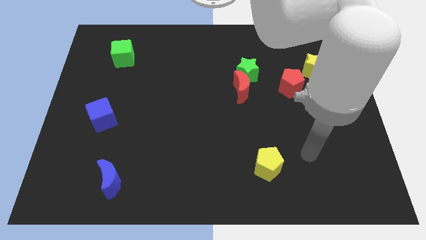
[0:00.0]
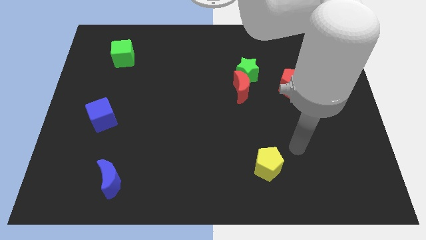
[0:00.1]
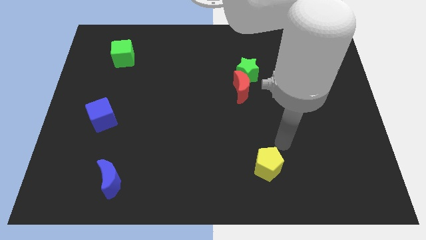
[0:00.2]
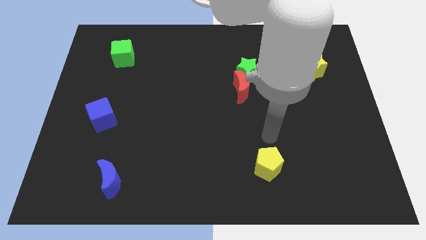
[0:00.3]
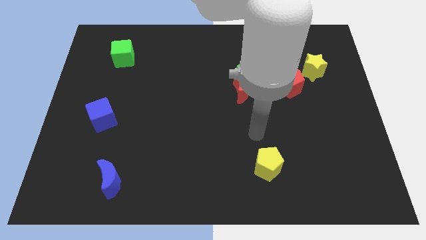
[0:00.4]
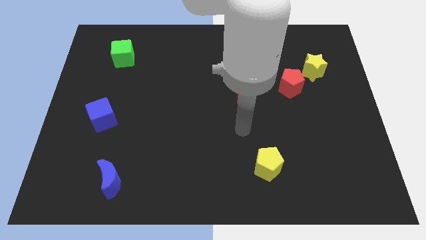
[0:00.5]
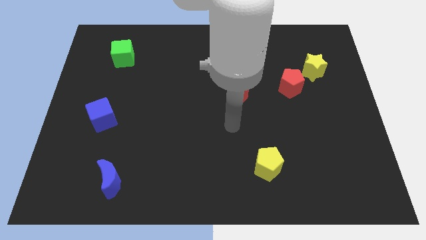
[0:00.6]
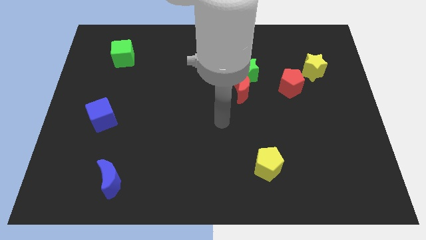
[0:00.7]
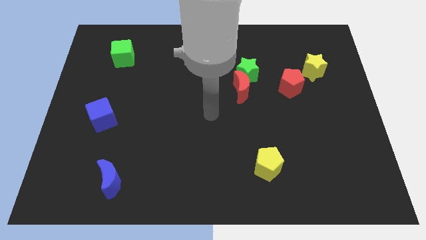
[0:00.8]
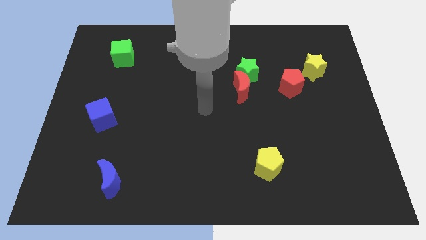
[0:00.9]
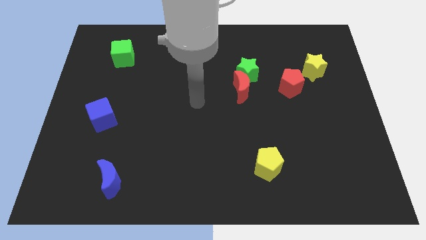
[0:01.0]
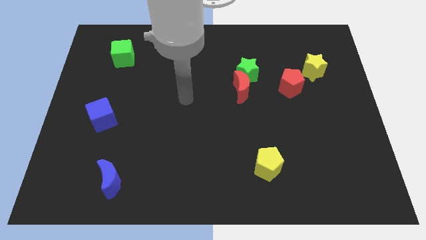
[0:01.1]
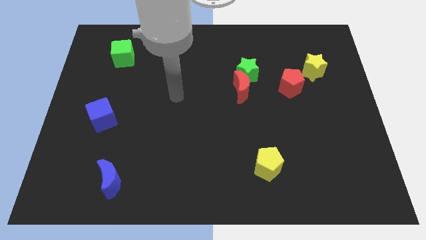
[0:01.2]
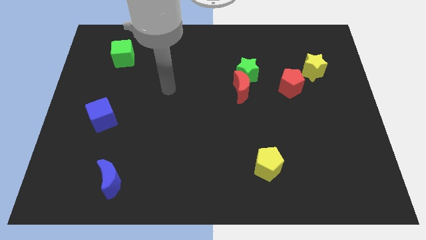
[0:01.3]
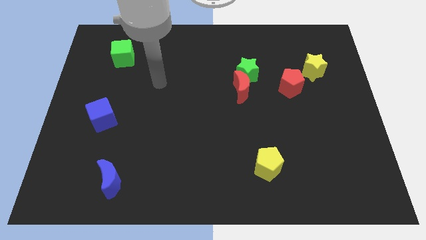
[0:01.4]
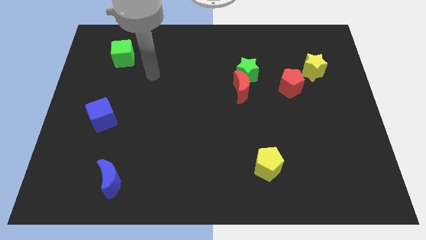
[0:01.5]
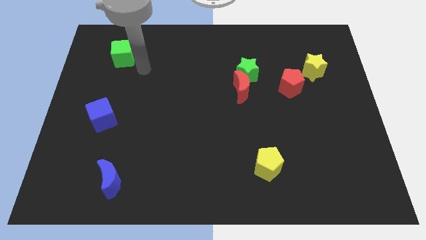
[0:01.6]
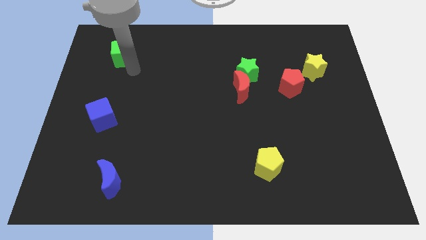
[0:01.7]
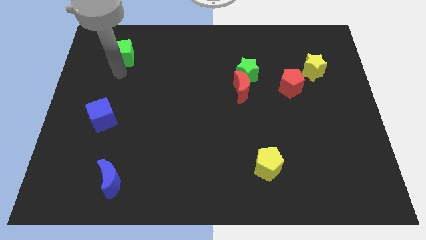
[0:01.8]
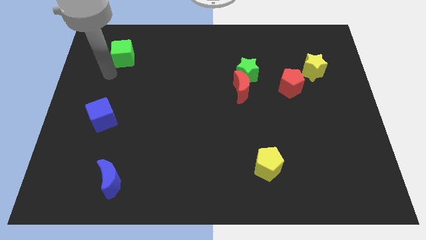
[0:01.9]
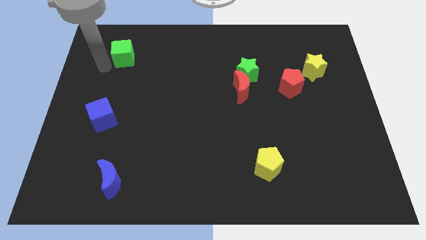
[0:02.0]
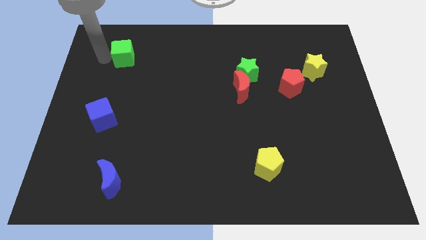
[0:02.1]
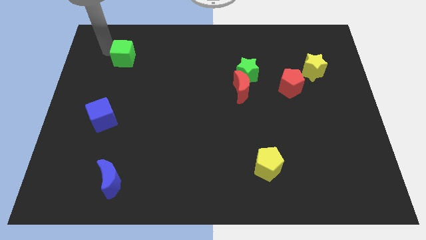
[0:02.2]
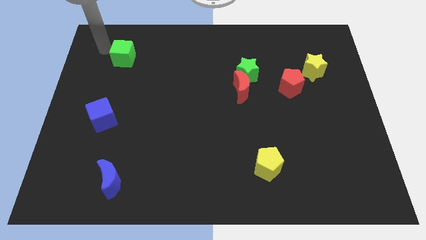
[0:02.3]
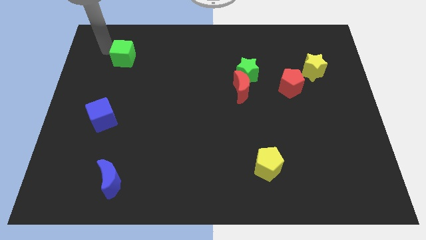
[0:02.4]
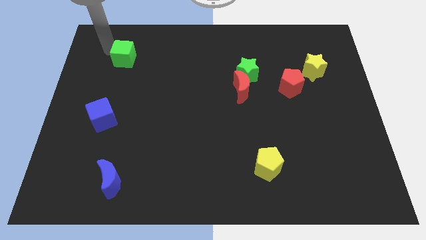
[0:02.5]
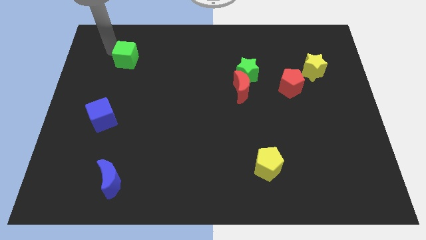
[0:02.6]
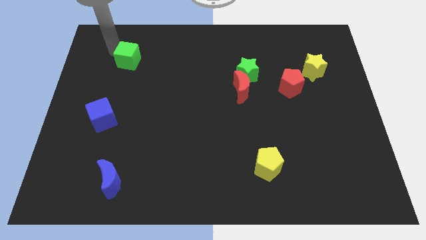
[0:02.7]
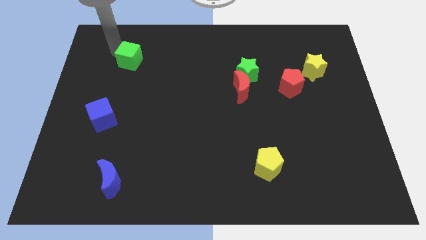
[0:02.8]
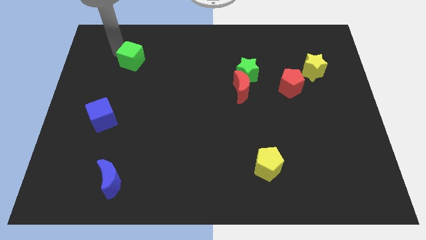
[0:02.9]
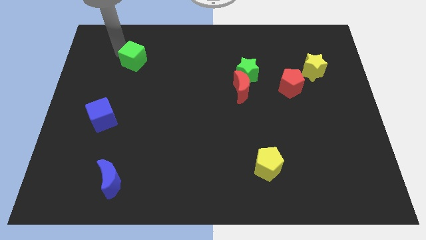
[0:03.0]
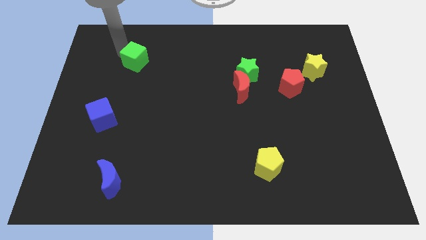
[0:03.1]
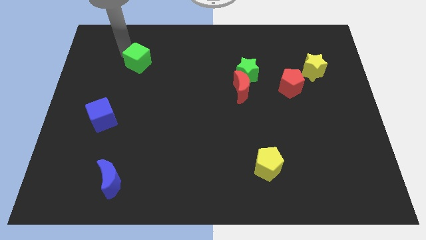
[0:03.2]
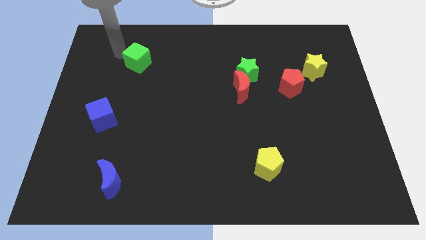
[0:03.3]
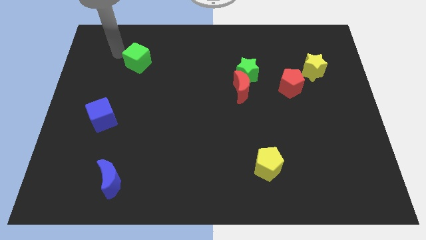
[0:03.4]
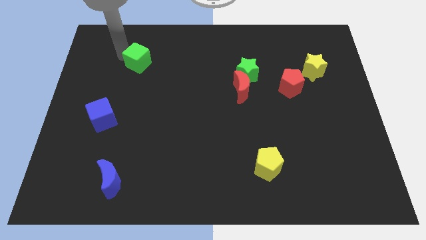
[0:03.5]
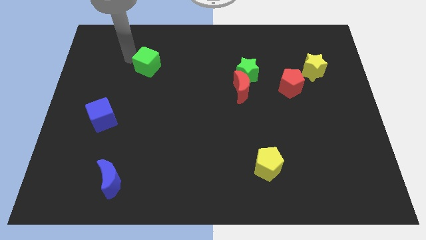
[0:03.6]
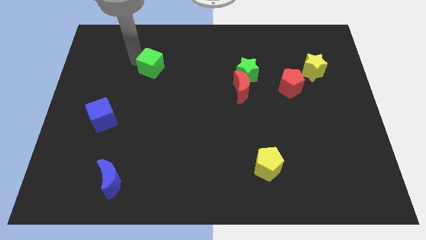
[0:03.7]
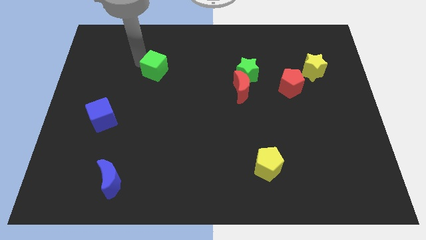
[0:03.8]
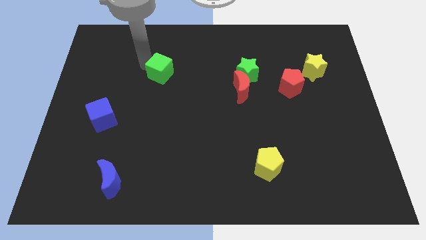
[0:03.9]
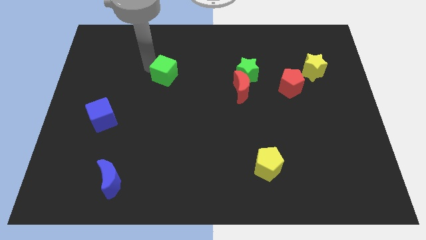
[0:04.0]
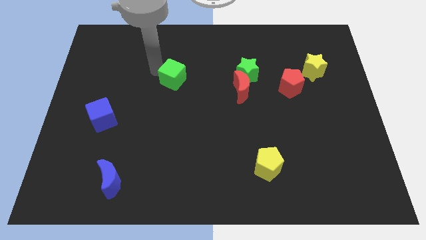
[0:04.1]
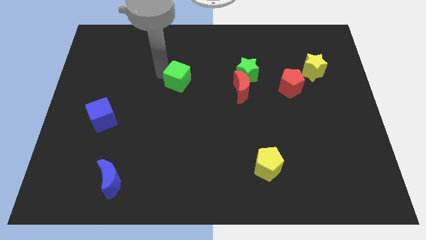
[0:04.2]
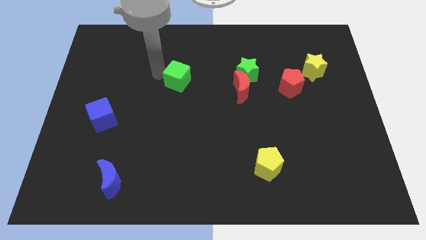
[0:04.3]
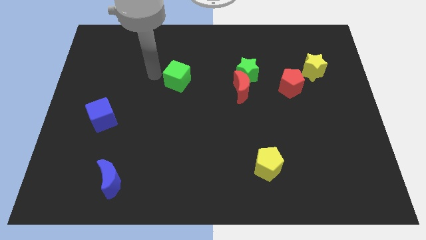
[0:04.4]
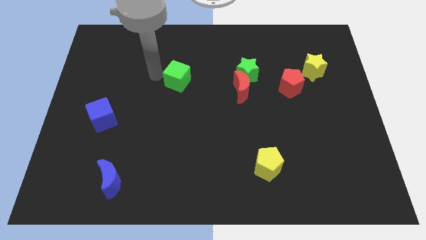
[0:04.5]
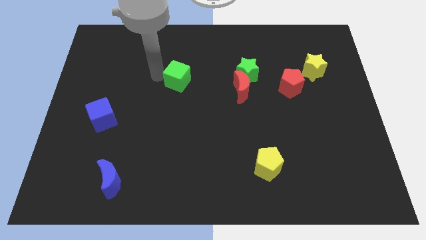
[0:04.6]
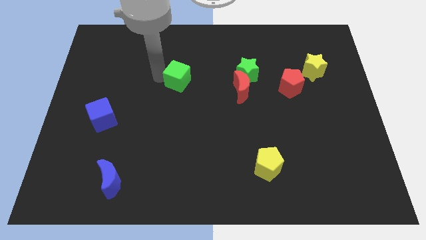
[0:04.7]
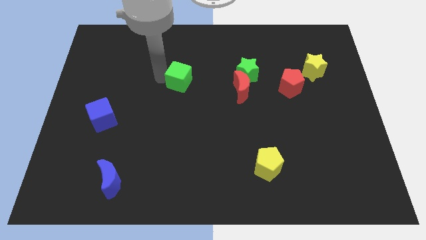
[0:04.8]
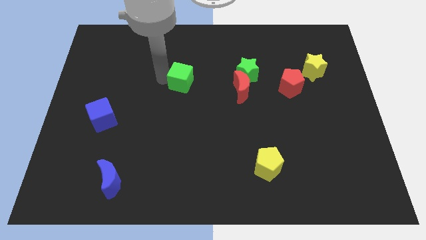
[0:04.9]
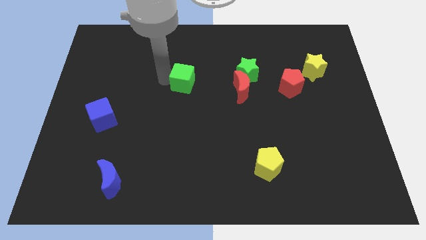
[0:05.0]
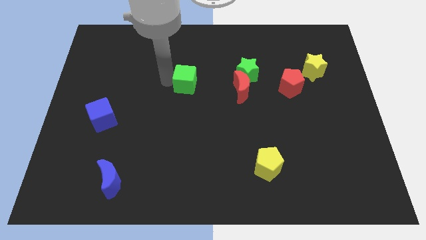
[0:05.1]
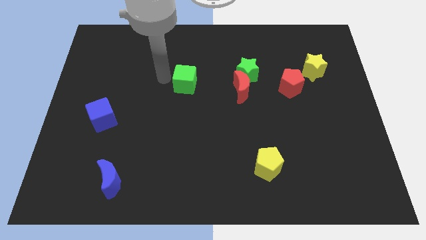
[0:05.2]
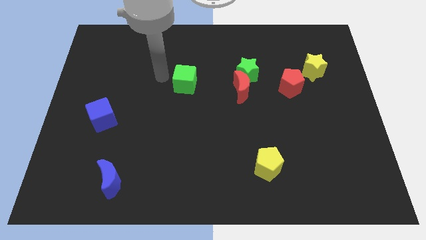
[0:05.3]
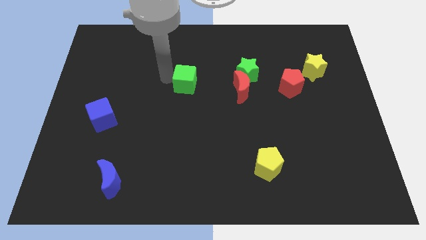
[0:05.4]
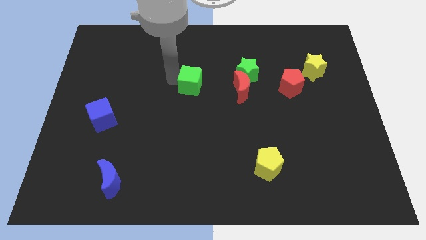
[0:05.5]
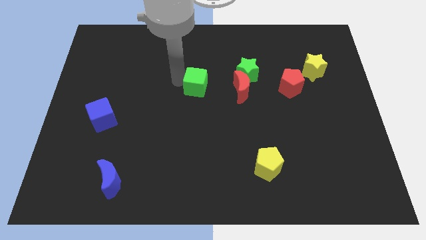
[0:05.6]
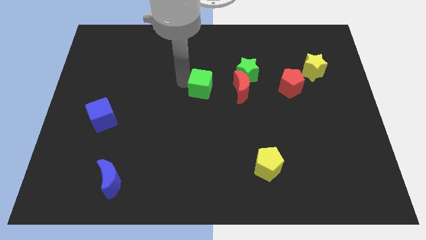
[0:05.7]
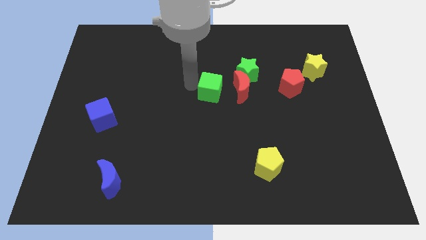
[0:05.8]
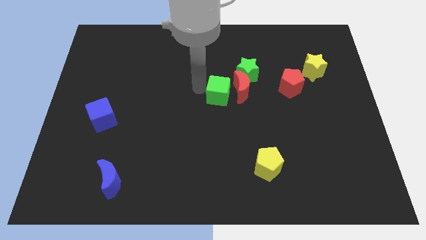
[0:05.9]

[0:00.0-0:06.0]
put the green cube to the red moon

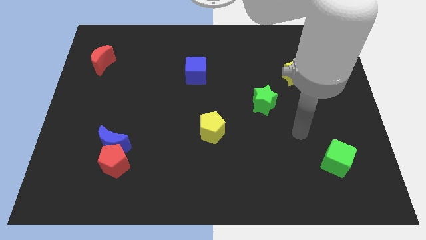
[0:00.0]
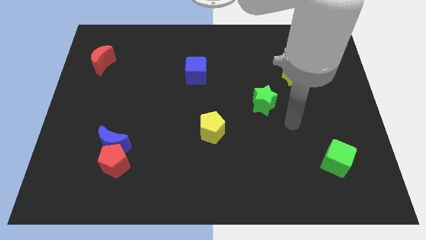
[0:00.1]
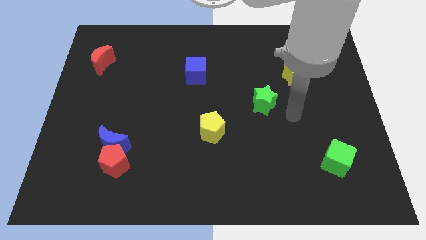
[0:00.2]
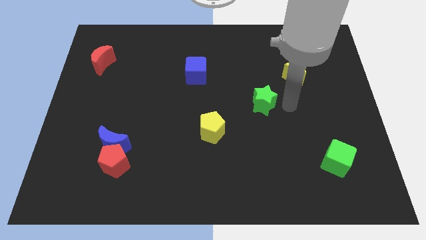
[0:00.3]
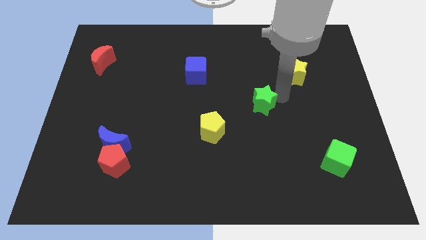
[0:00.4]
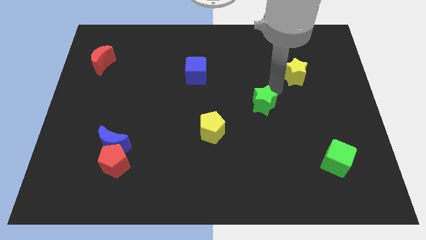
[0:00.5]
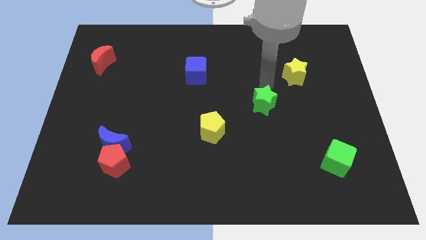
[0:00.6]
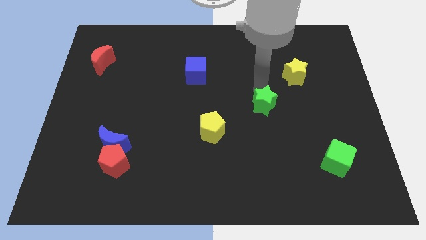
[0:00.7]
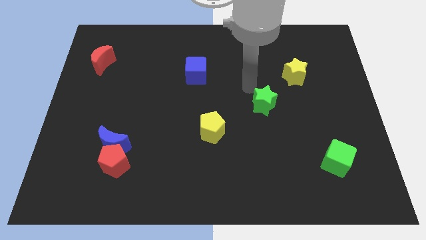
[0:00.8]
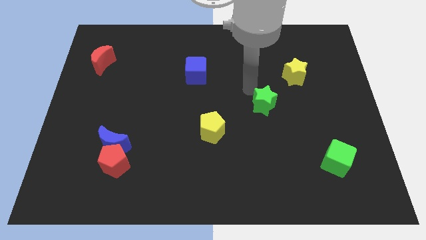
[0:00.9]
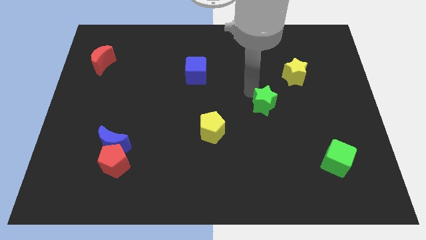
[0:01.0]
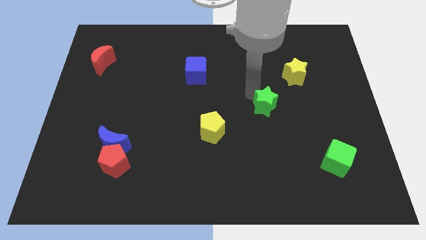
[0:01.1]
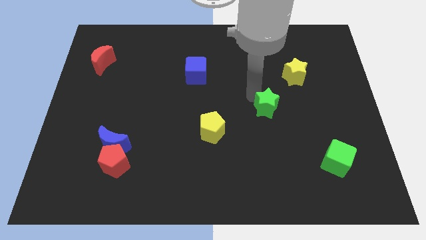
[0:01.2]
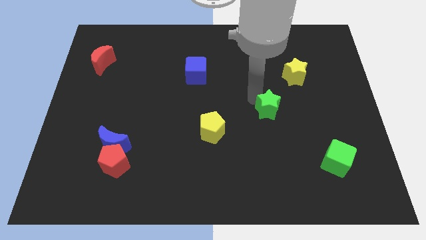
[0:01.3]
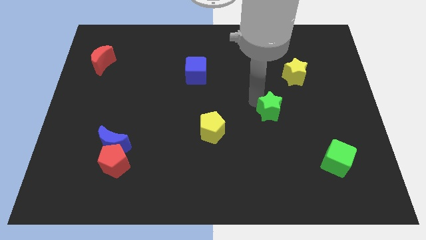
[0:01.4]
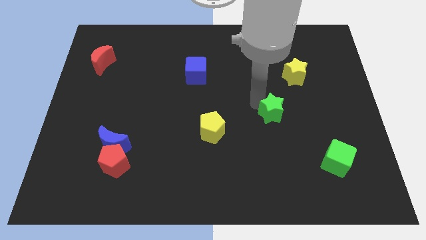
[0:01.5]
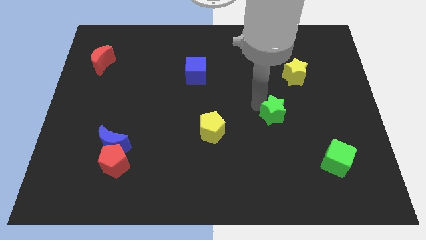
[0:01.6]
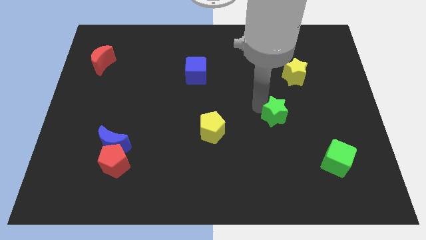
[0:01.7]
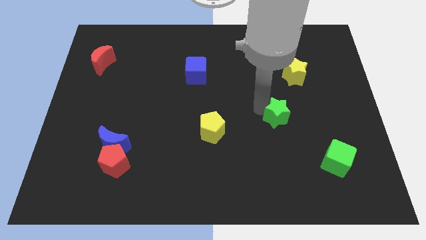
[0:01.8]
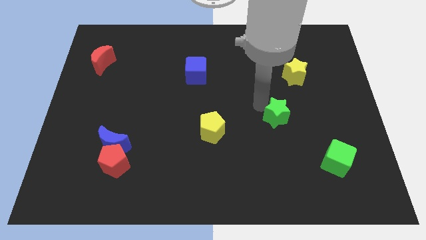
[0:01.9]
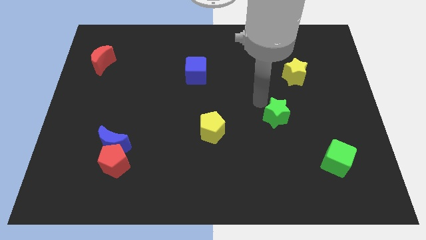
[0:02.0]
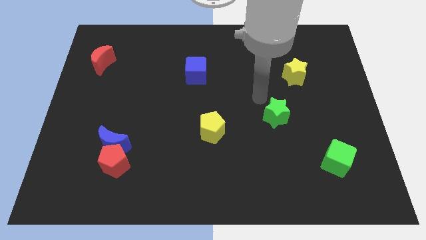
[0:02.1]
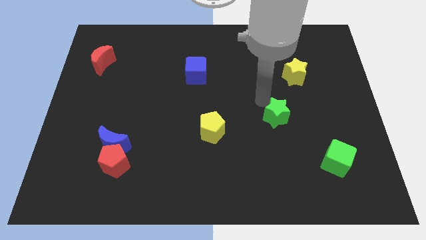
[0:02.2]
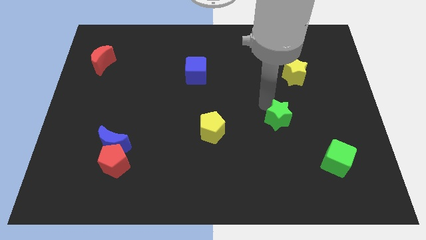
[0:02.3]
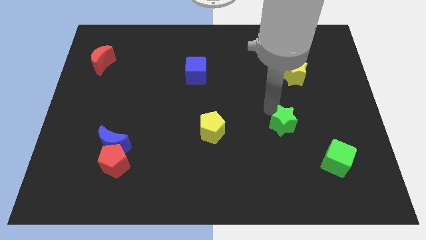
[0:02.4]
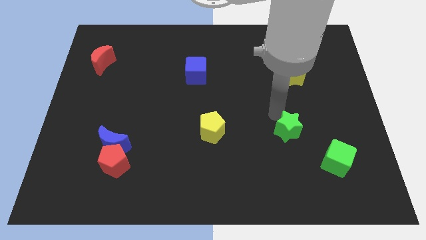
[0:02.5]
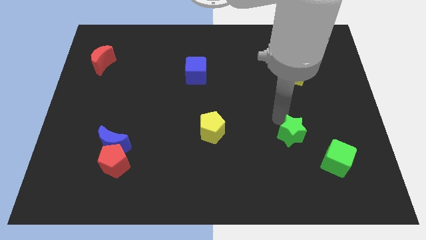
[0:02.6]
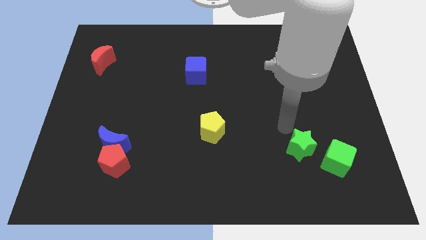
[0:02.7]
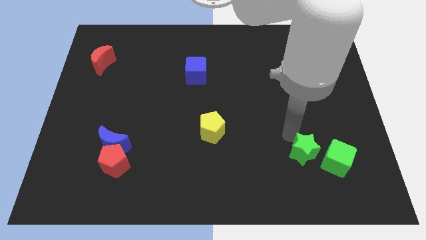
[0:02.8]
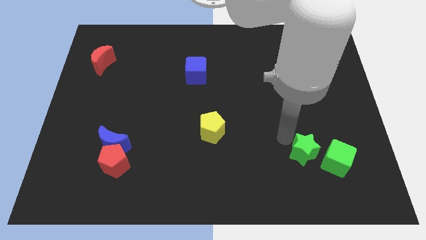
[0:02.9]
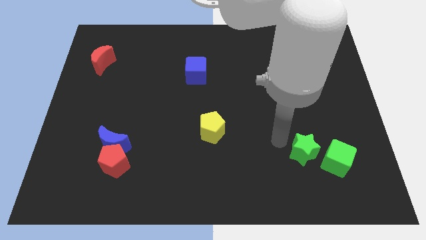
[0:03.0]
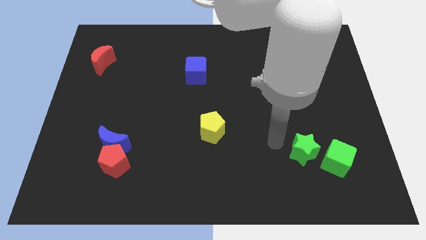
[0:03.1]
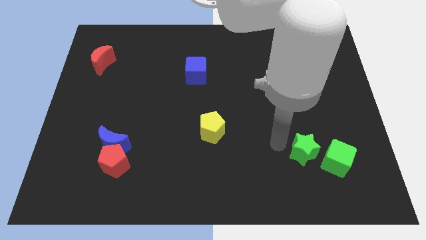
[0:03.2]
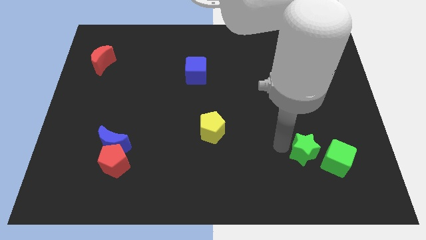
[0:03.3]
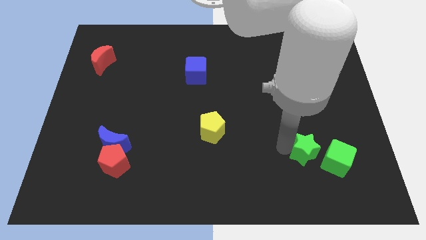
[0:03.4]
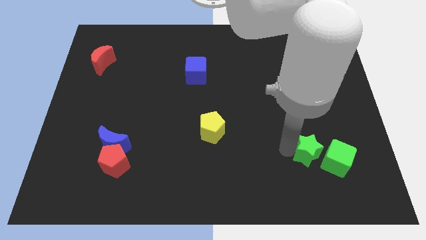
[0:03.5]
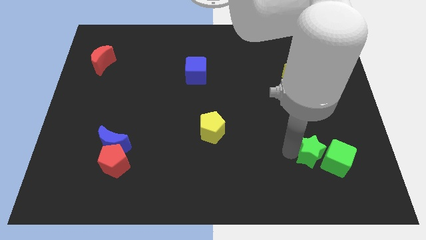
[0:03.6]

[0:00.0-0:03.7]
move the green star towards the green cube
